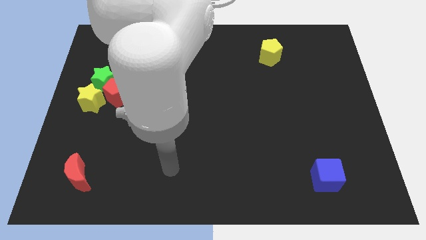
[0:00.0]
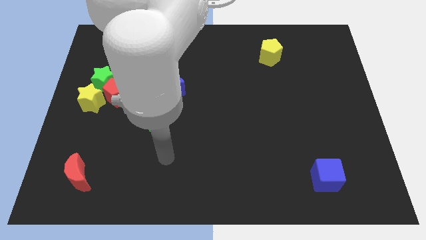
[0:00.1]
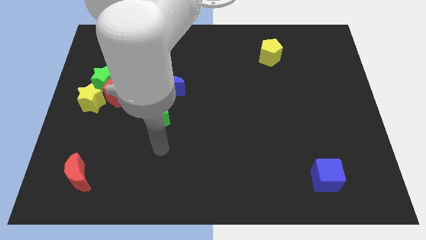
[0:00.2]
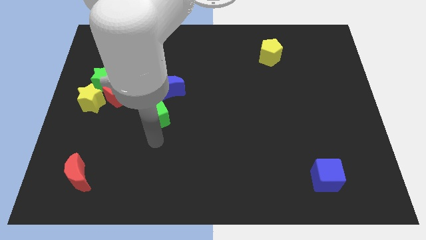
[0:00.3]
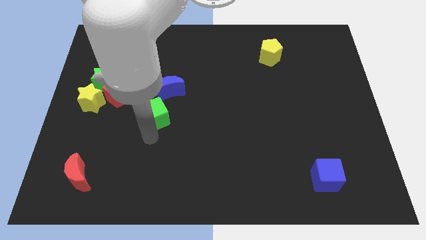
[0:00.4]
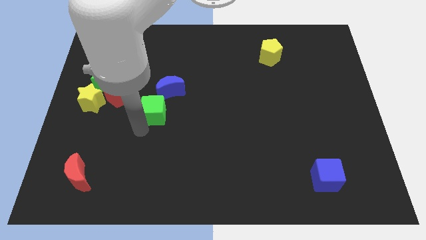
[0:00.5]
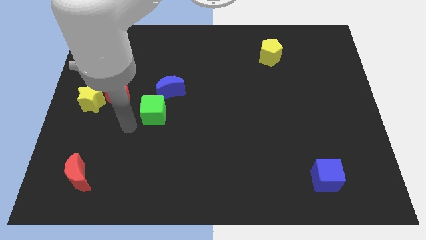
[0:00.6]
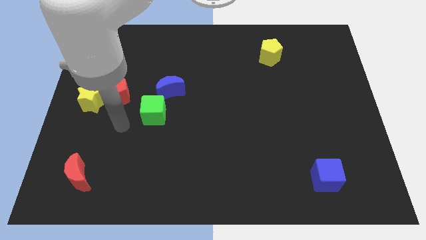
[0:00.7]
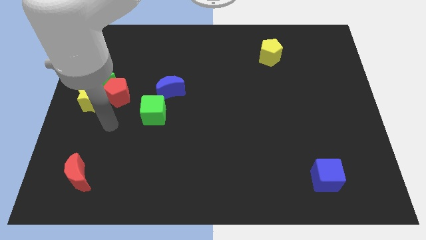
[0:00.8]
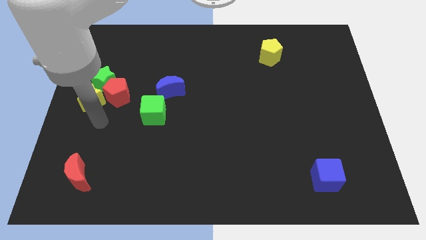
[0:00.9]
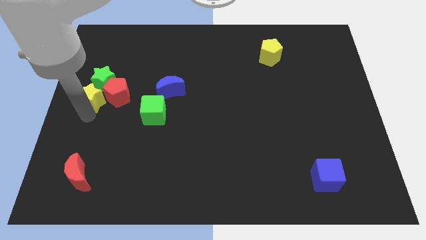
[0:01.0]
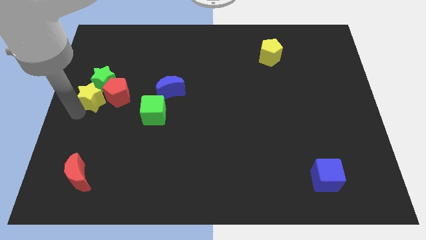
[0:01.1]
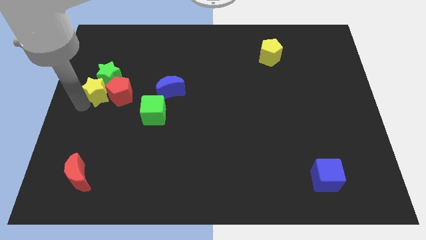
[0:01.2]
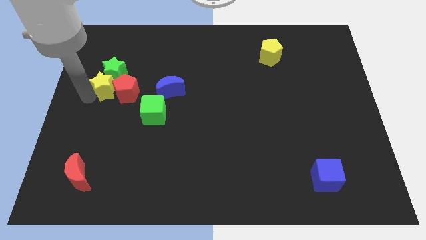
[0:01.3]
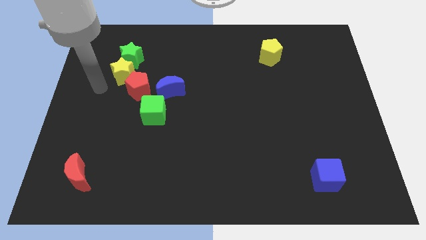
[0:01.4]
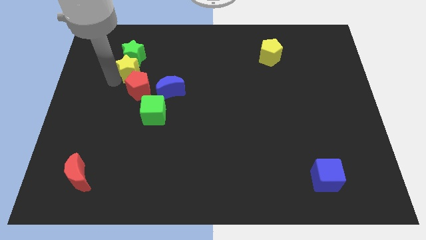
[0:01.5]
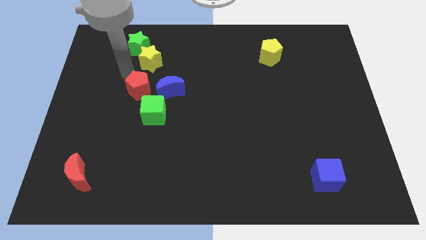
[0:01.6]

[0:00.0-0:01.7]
pull the red pentagon apart from the green star and yellow star

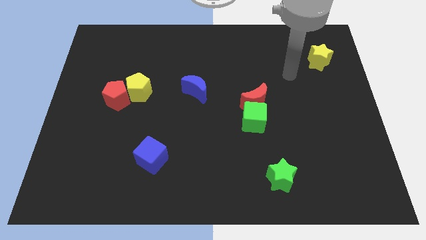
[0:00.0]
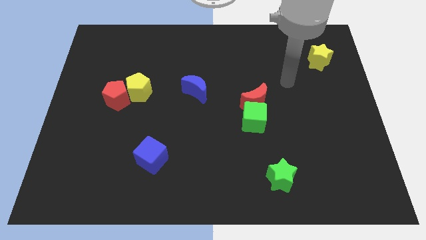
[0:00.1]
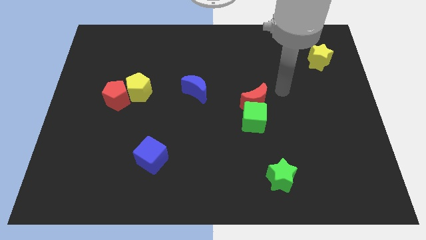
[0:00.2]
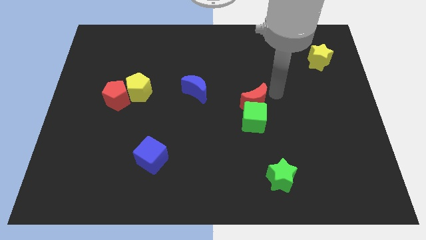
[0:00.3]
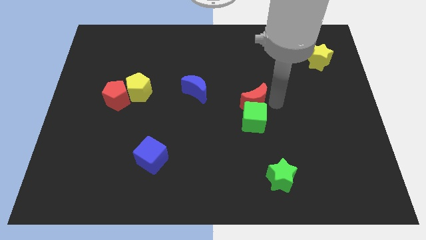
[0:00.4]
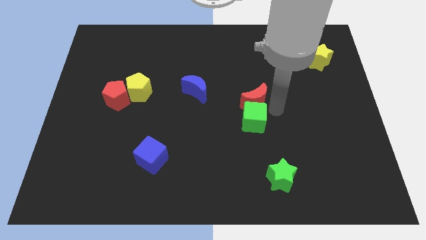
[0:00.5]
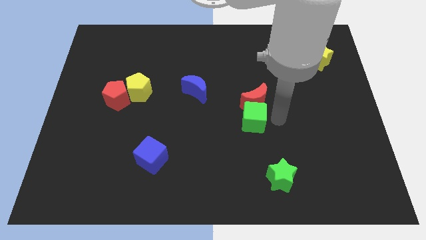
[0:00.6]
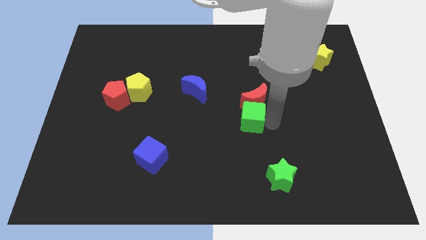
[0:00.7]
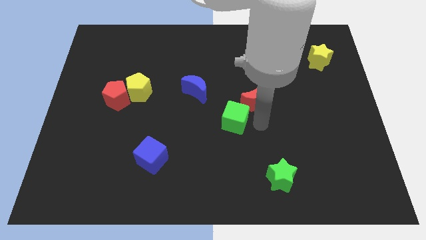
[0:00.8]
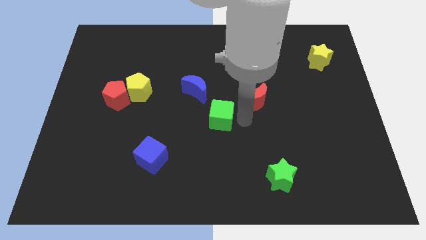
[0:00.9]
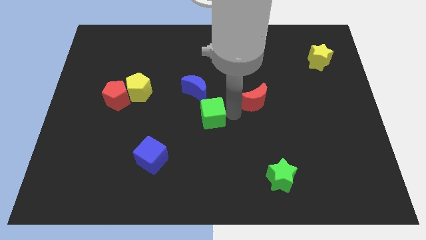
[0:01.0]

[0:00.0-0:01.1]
pull the red moon apart from the green cube

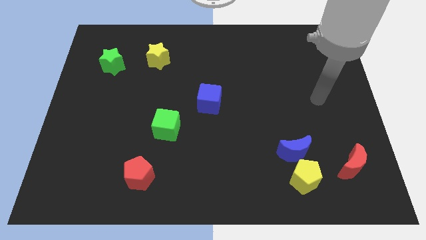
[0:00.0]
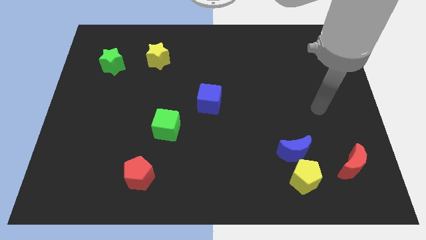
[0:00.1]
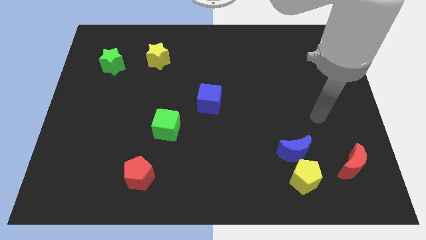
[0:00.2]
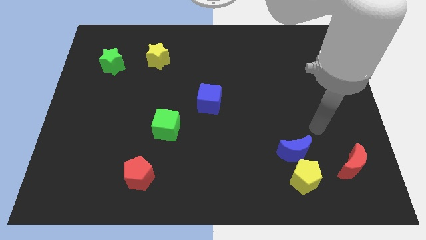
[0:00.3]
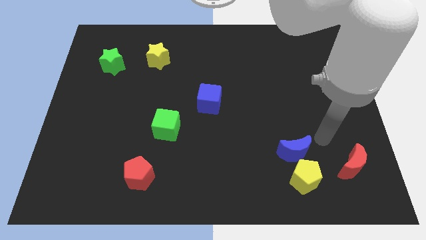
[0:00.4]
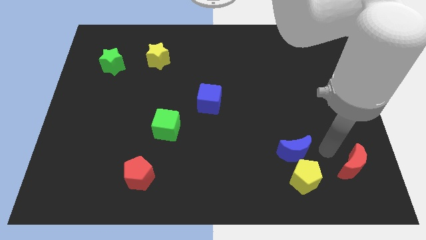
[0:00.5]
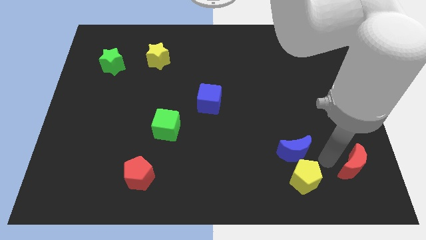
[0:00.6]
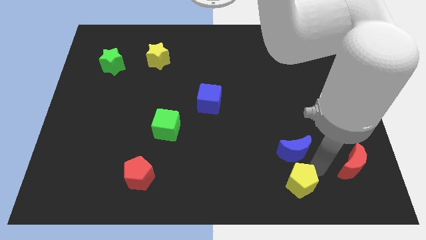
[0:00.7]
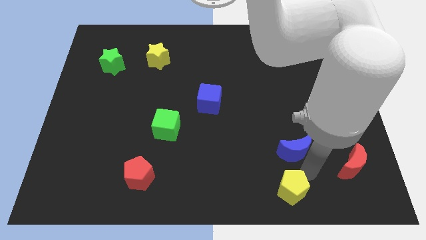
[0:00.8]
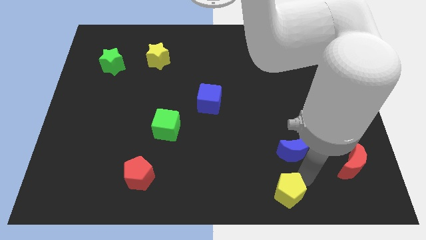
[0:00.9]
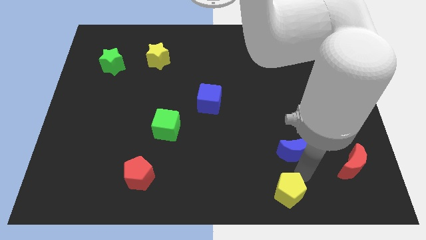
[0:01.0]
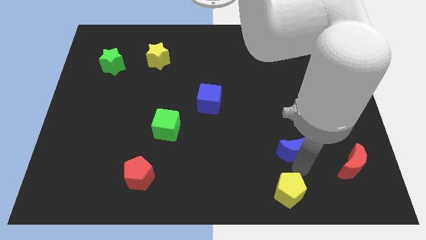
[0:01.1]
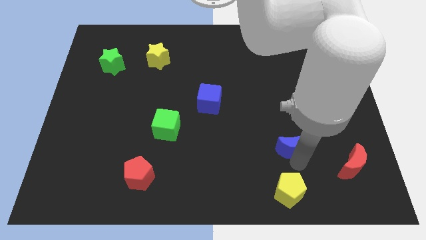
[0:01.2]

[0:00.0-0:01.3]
move the blue moon away from the yellow pentagon

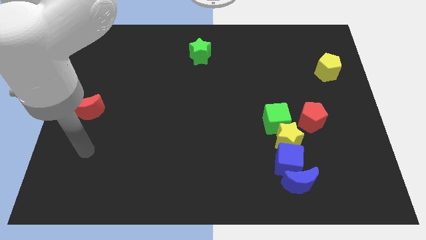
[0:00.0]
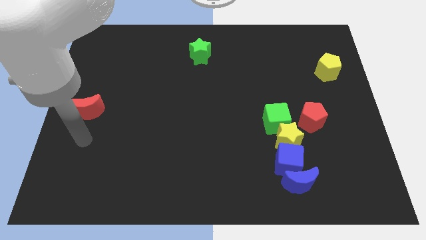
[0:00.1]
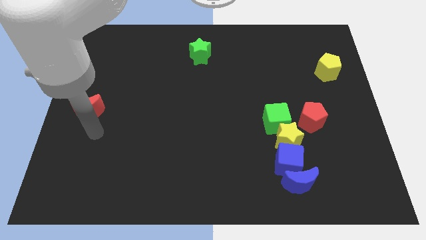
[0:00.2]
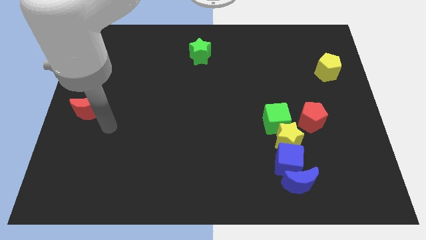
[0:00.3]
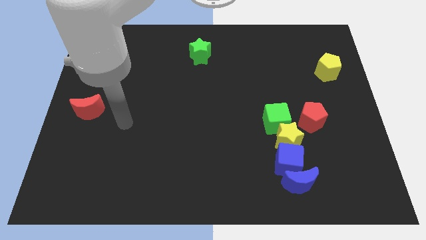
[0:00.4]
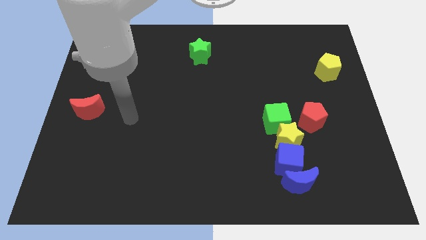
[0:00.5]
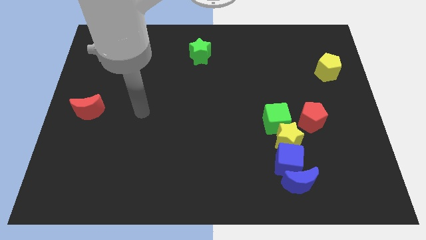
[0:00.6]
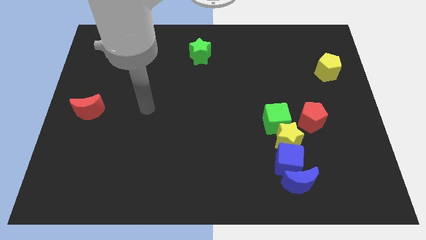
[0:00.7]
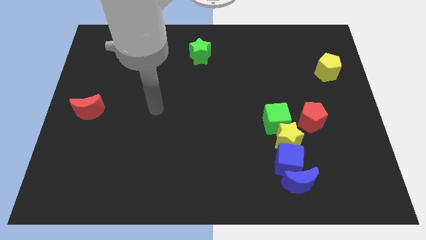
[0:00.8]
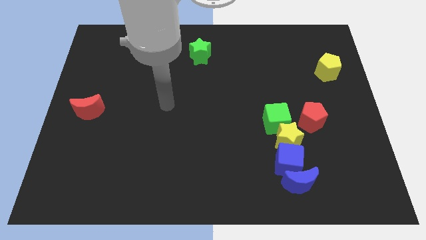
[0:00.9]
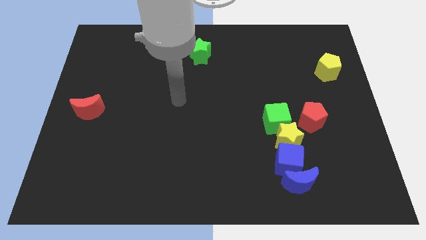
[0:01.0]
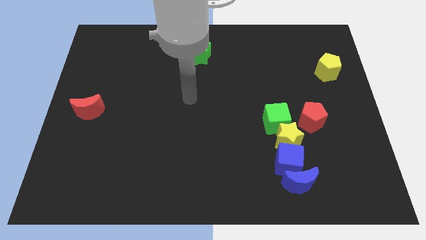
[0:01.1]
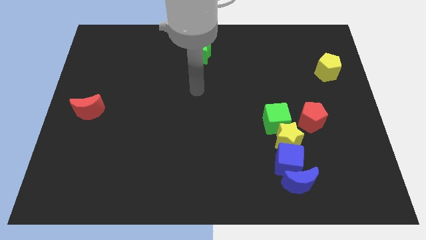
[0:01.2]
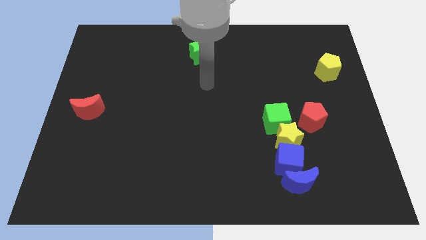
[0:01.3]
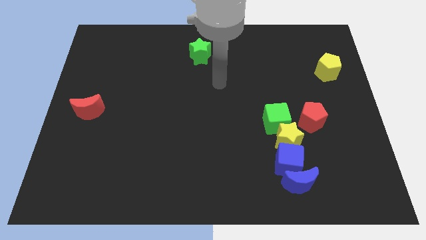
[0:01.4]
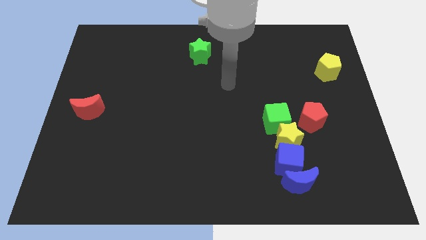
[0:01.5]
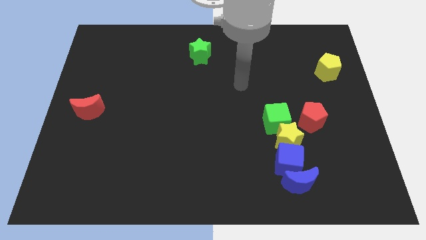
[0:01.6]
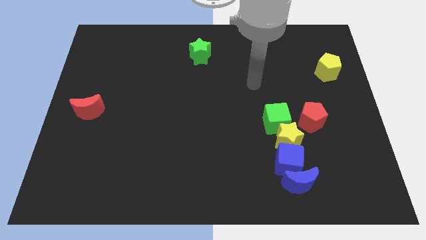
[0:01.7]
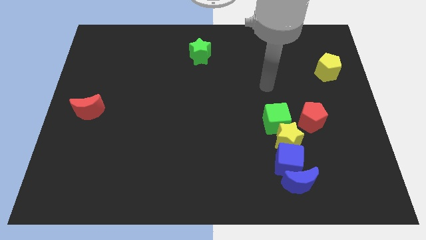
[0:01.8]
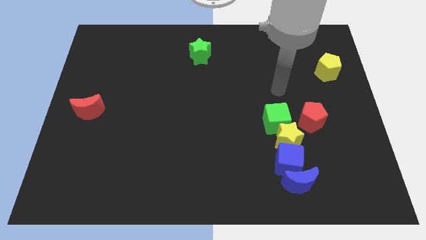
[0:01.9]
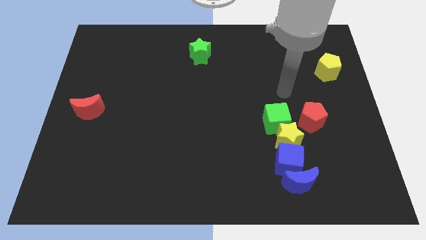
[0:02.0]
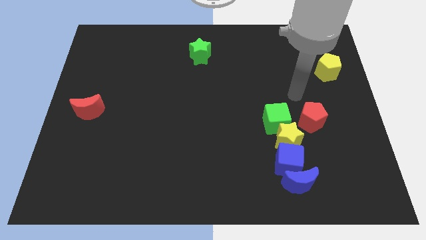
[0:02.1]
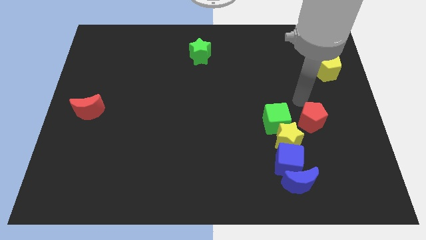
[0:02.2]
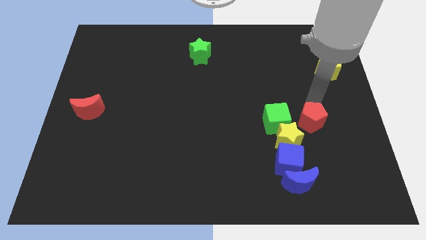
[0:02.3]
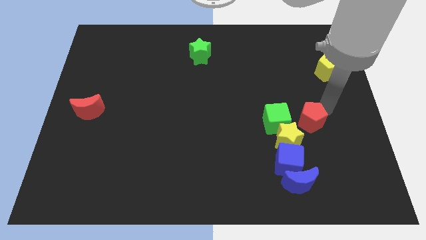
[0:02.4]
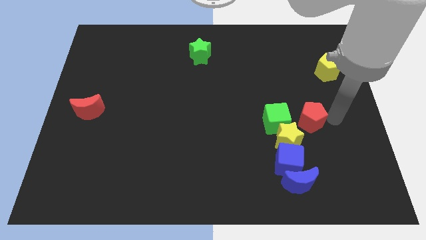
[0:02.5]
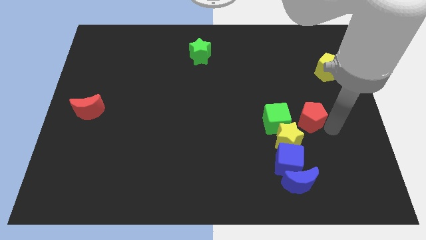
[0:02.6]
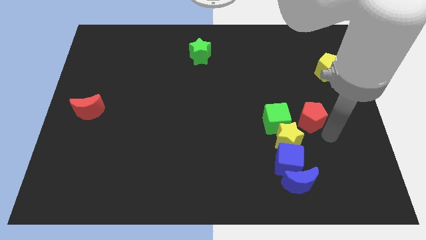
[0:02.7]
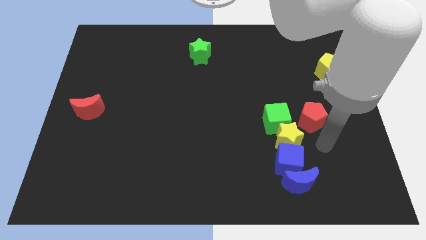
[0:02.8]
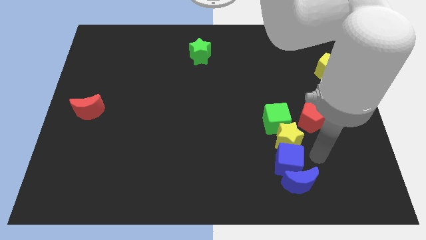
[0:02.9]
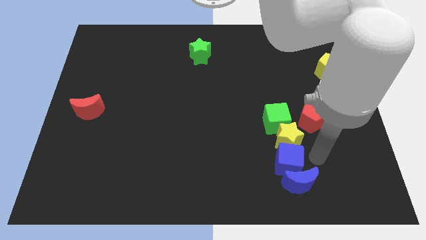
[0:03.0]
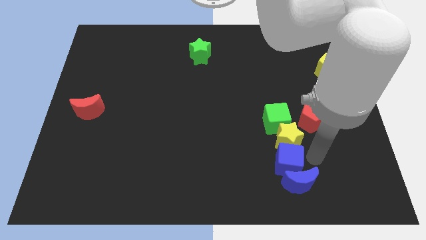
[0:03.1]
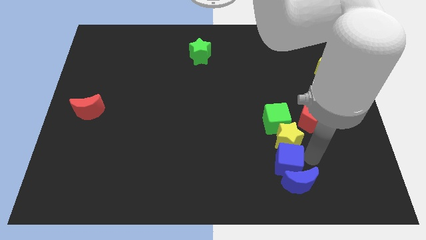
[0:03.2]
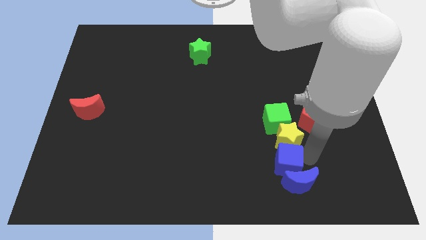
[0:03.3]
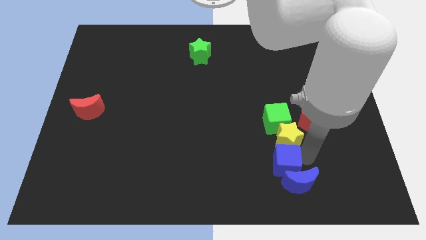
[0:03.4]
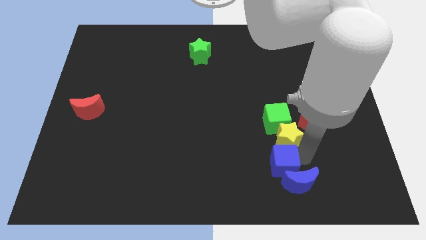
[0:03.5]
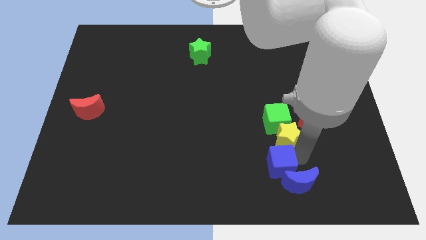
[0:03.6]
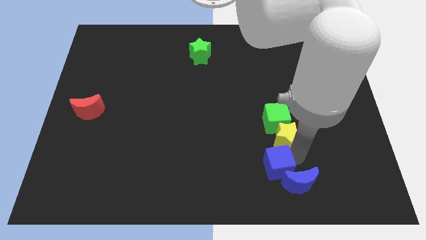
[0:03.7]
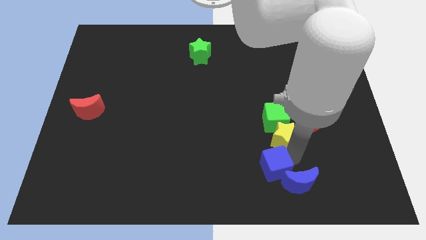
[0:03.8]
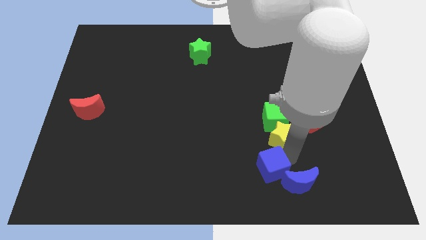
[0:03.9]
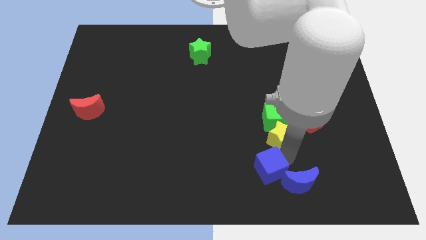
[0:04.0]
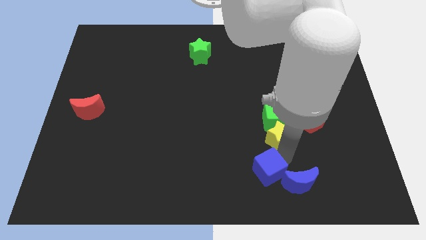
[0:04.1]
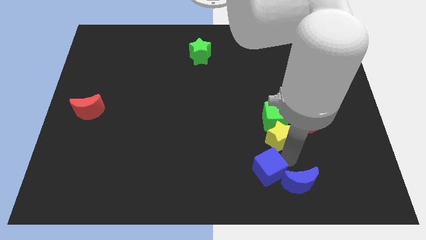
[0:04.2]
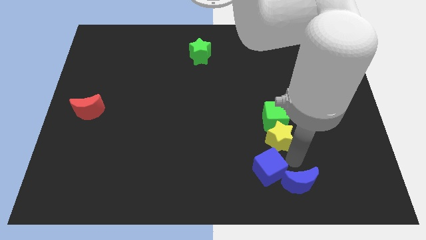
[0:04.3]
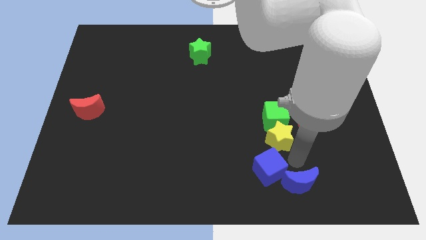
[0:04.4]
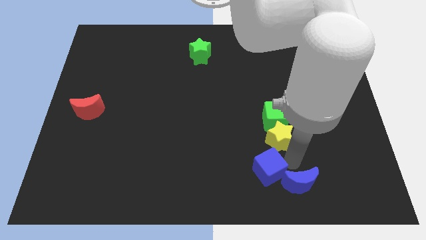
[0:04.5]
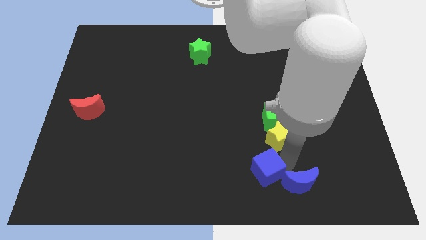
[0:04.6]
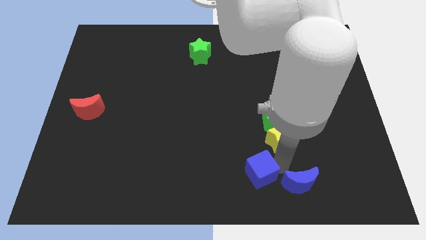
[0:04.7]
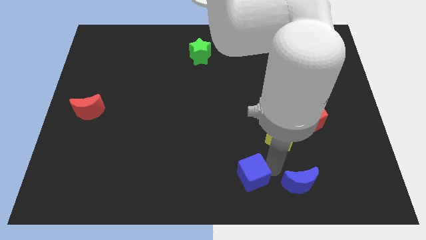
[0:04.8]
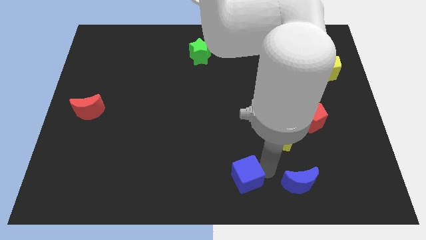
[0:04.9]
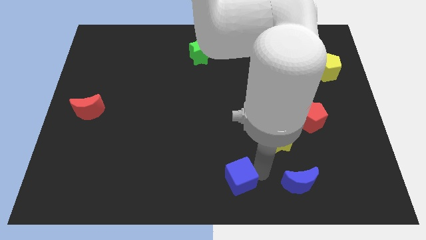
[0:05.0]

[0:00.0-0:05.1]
pull the blue cube apart from the blue moon and yellow star

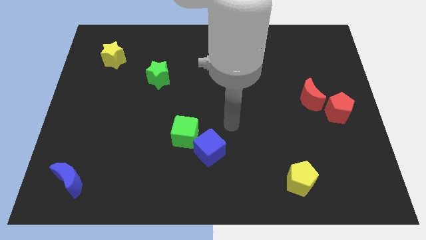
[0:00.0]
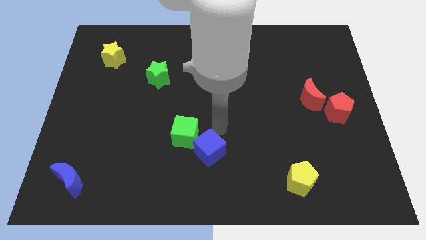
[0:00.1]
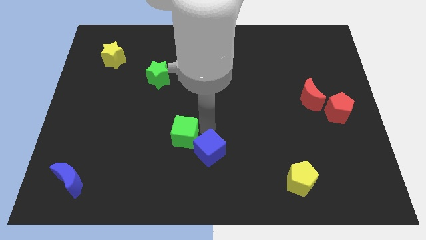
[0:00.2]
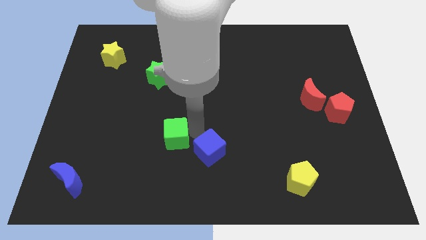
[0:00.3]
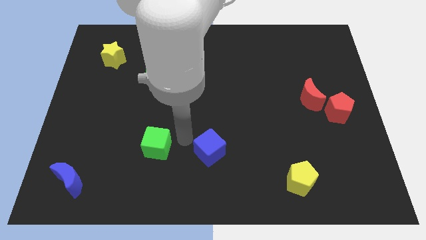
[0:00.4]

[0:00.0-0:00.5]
pull the blue cube apart from the green cube
